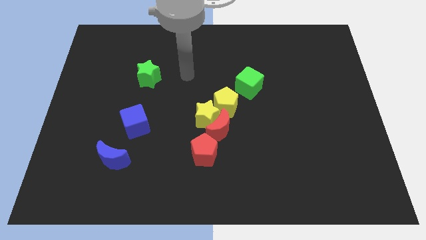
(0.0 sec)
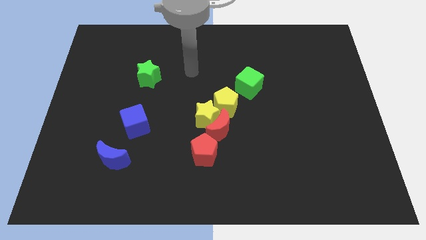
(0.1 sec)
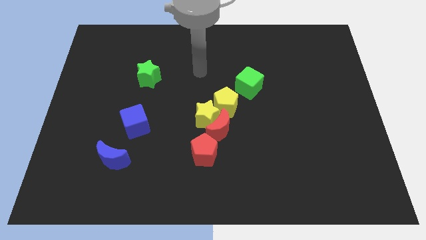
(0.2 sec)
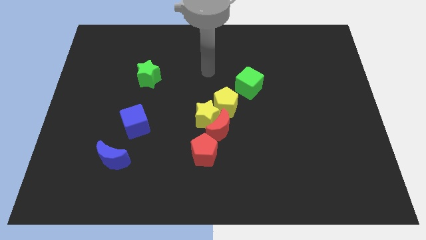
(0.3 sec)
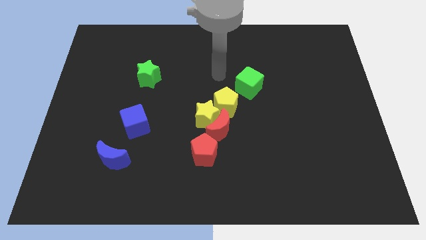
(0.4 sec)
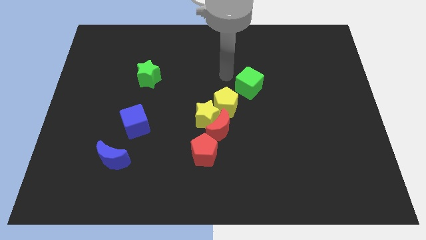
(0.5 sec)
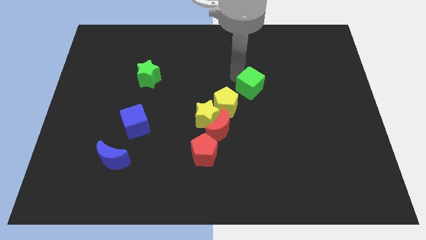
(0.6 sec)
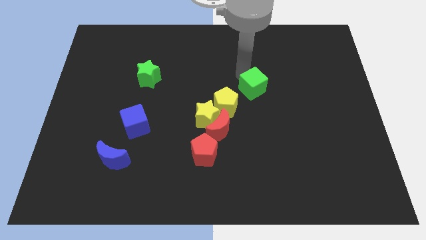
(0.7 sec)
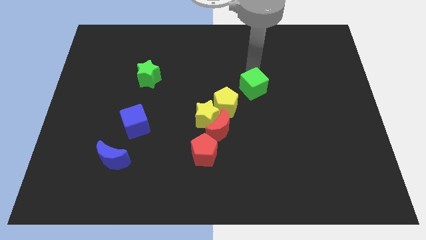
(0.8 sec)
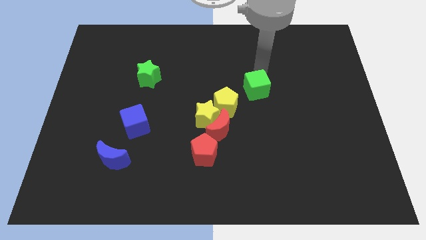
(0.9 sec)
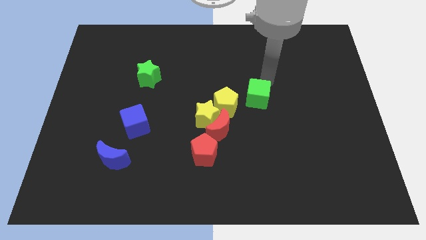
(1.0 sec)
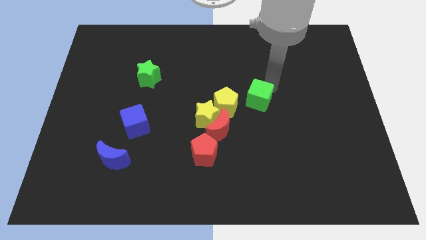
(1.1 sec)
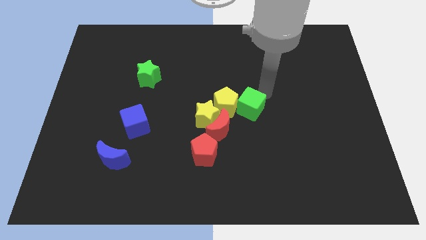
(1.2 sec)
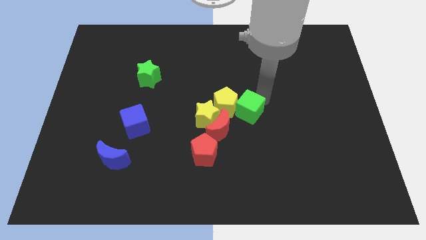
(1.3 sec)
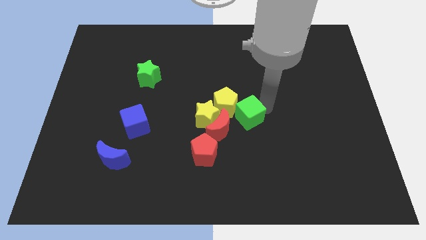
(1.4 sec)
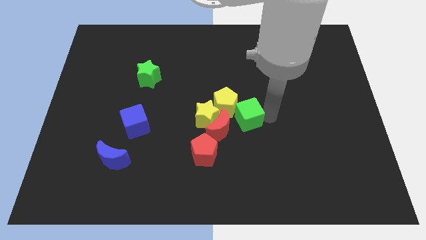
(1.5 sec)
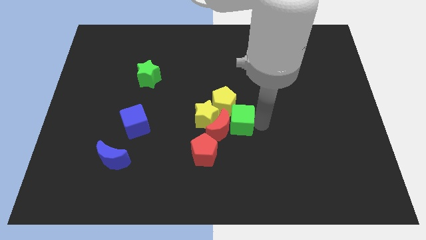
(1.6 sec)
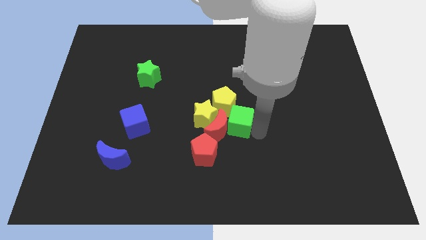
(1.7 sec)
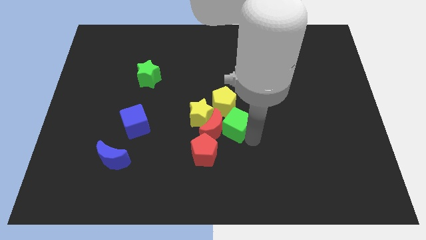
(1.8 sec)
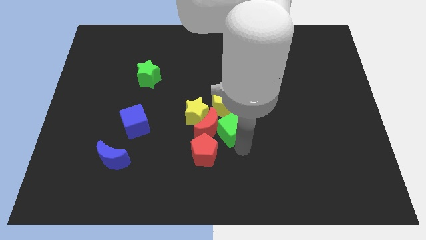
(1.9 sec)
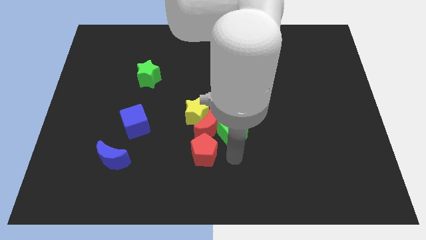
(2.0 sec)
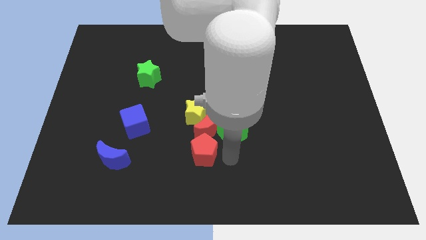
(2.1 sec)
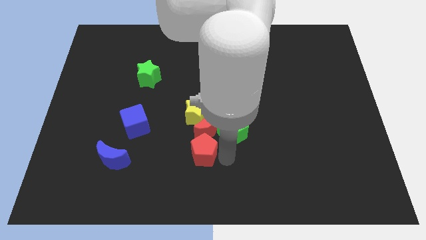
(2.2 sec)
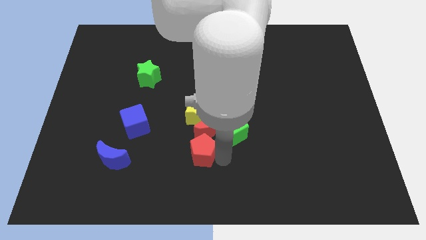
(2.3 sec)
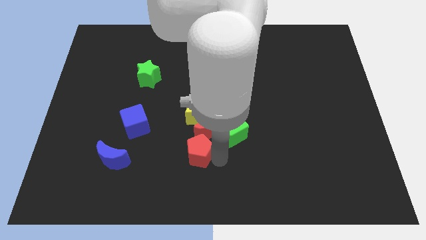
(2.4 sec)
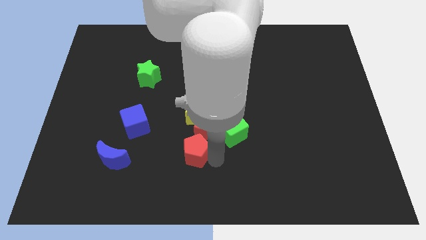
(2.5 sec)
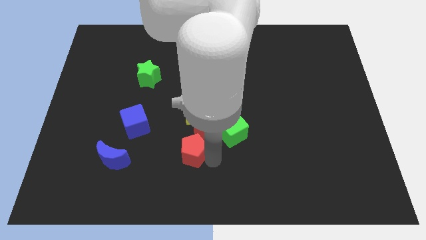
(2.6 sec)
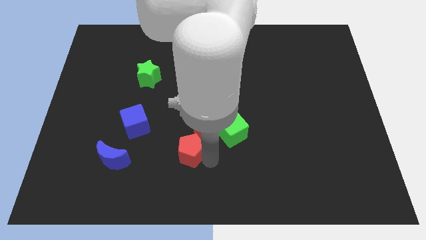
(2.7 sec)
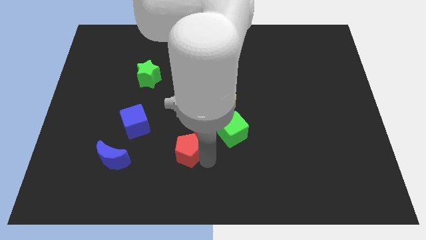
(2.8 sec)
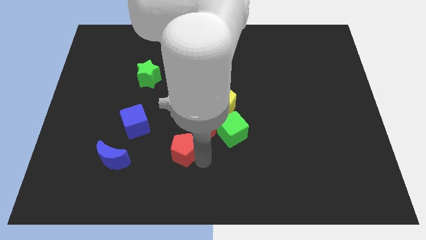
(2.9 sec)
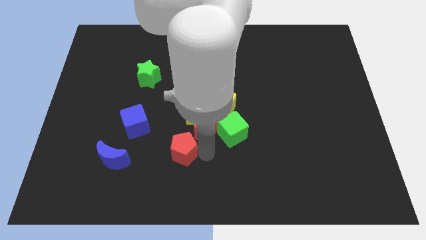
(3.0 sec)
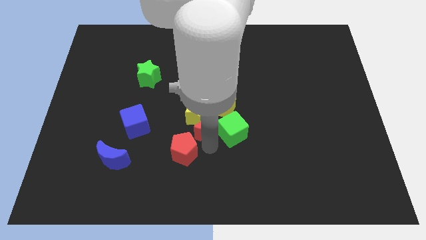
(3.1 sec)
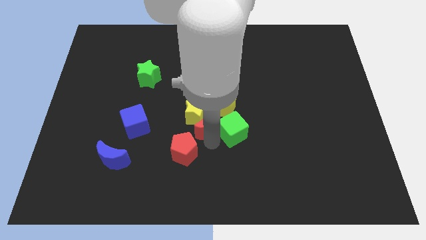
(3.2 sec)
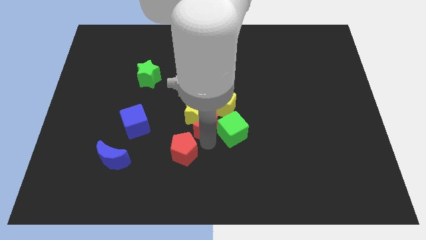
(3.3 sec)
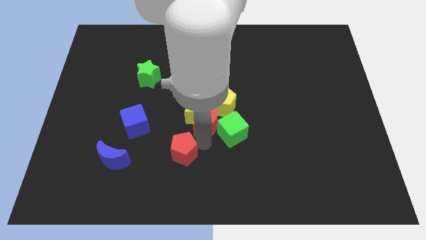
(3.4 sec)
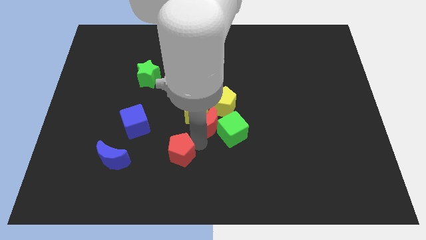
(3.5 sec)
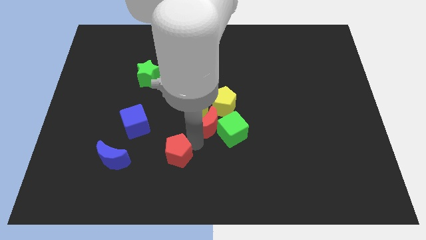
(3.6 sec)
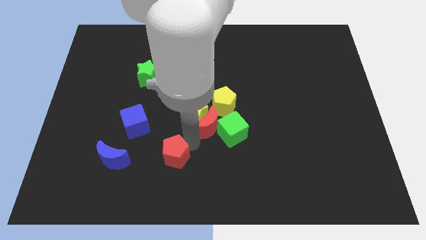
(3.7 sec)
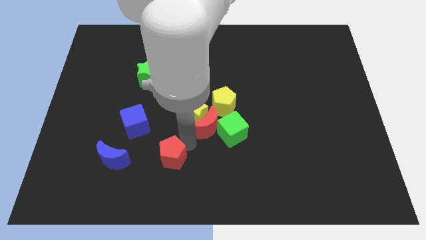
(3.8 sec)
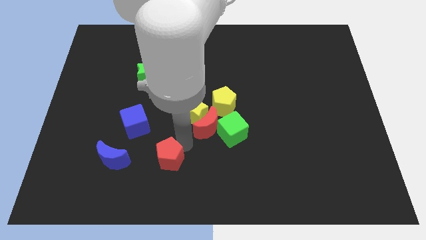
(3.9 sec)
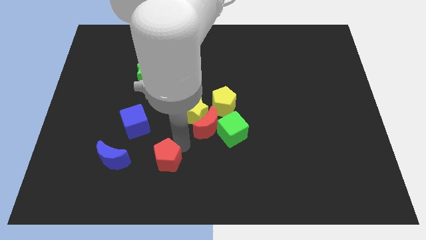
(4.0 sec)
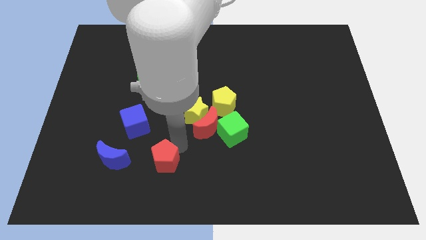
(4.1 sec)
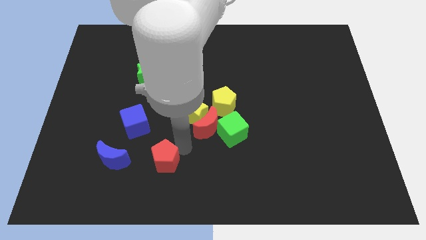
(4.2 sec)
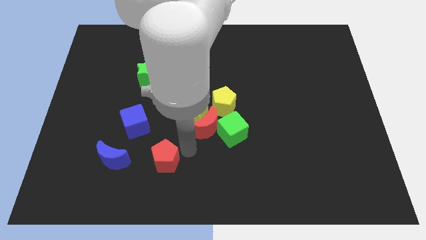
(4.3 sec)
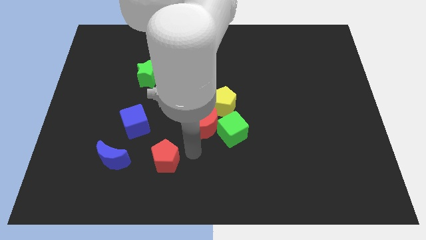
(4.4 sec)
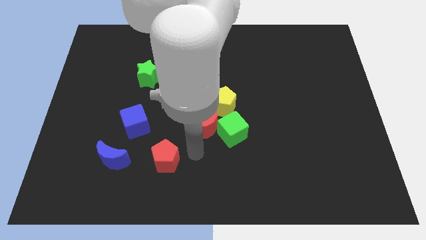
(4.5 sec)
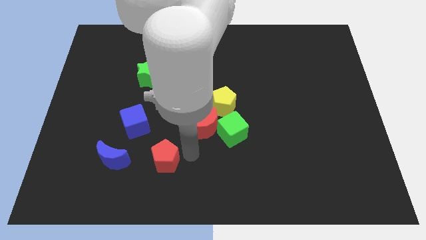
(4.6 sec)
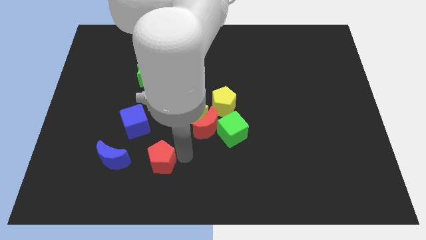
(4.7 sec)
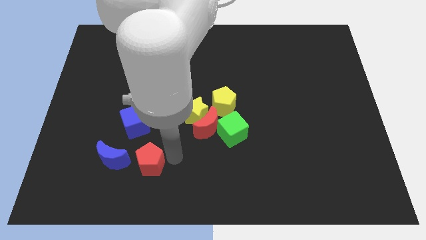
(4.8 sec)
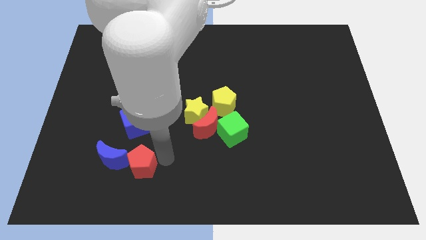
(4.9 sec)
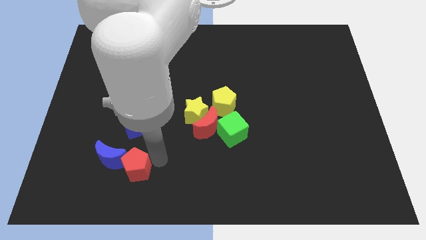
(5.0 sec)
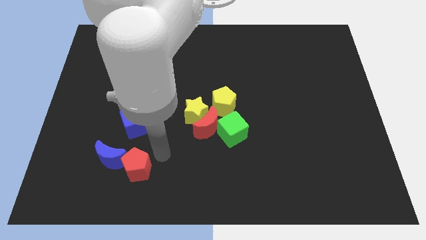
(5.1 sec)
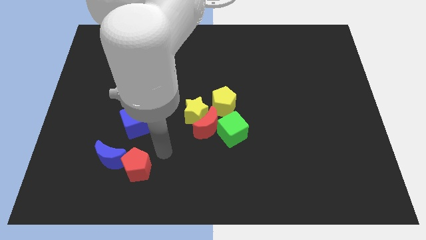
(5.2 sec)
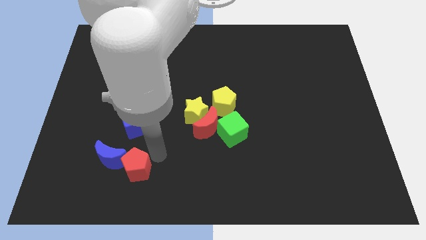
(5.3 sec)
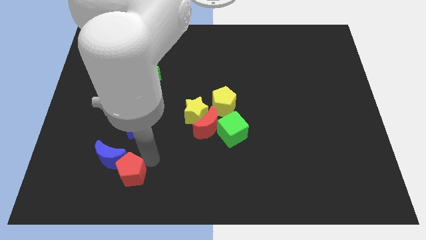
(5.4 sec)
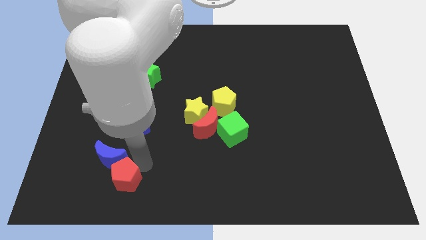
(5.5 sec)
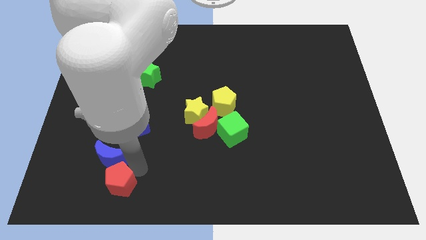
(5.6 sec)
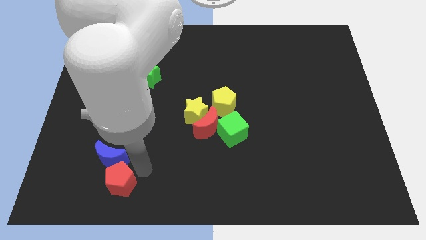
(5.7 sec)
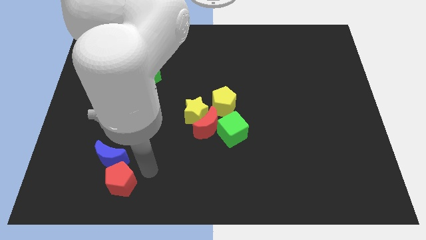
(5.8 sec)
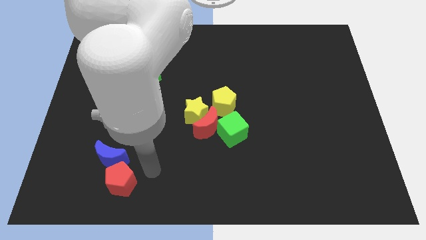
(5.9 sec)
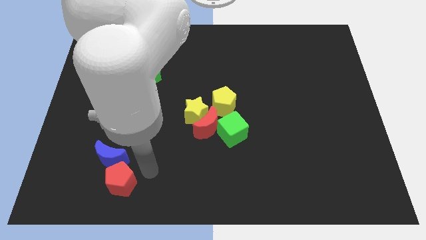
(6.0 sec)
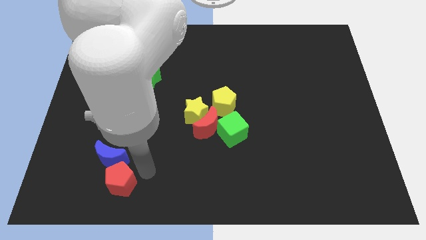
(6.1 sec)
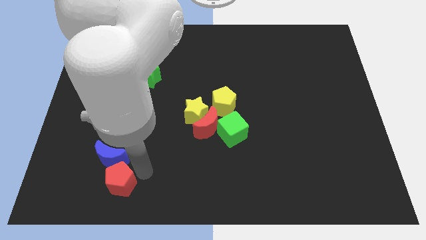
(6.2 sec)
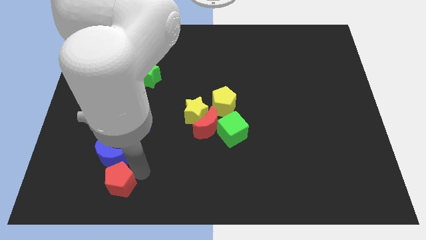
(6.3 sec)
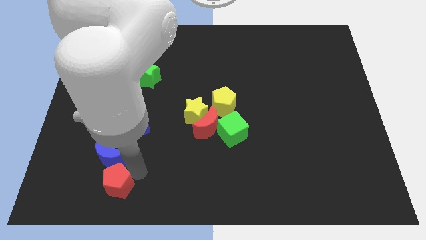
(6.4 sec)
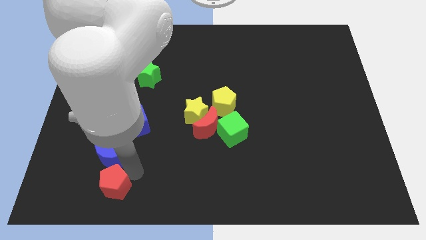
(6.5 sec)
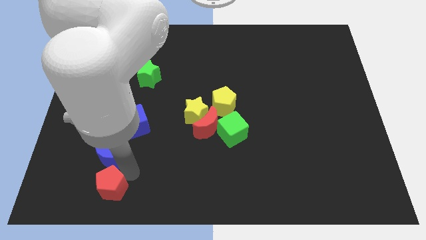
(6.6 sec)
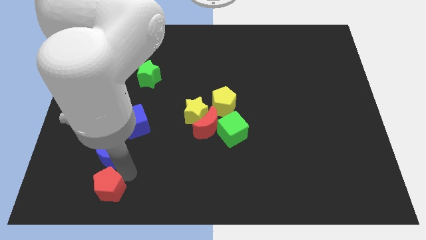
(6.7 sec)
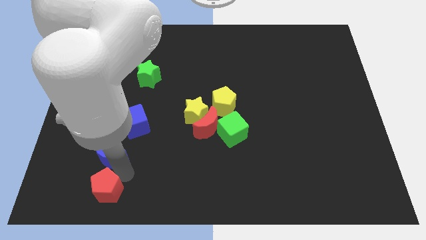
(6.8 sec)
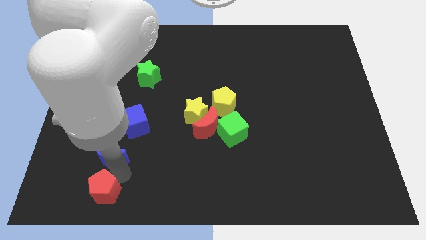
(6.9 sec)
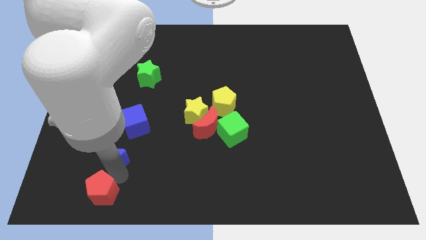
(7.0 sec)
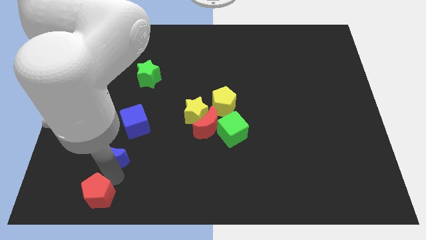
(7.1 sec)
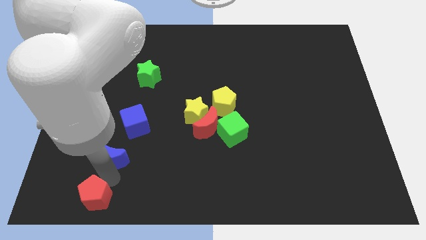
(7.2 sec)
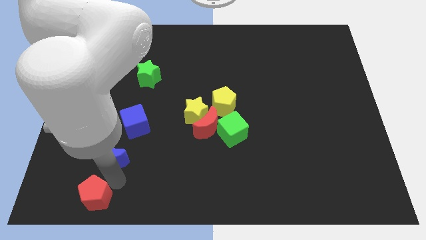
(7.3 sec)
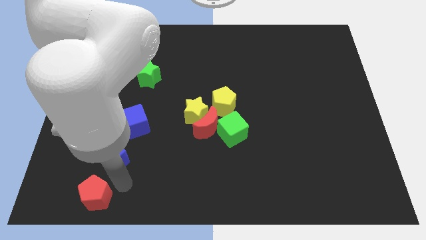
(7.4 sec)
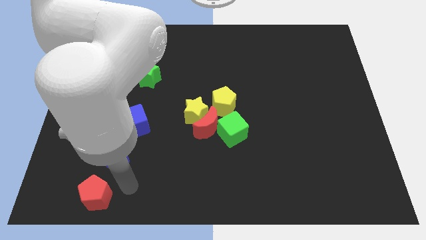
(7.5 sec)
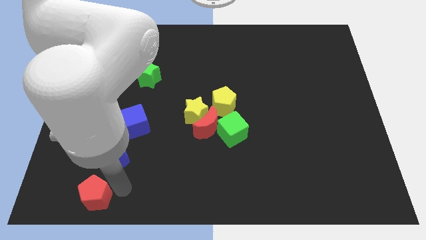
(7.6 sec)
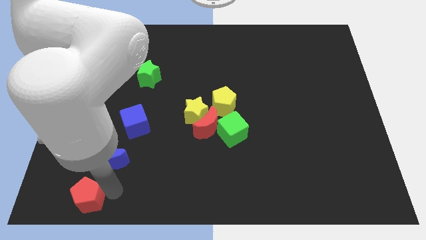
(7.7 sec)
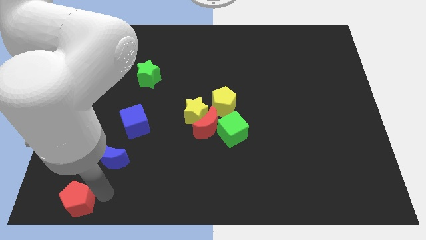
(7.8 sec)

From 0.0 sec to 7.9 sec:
push the red pentagon to the lower left corner
